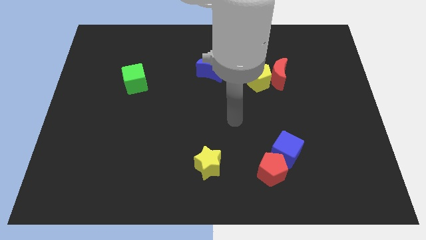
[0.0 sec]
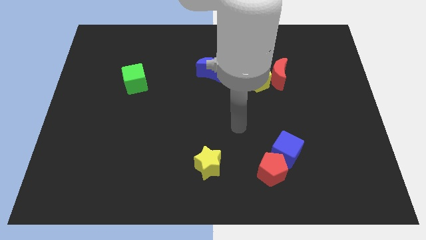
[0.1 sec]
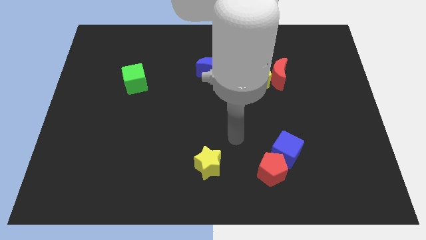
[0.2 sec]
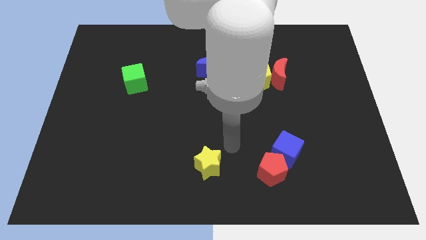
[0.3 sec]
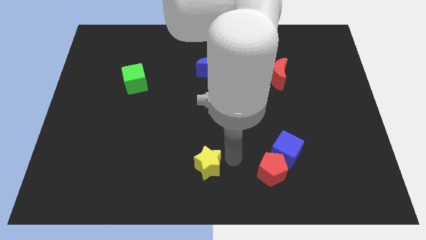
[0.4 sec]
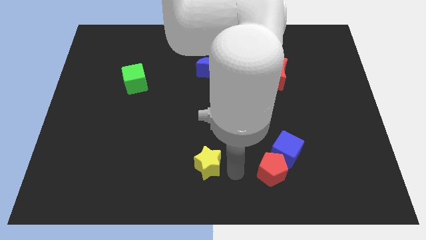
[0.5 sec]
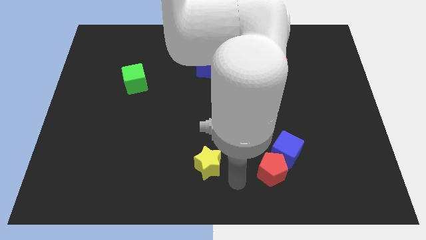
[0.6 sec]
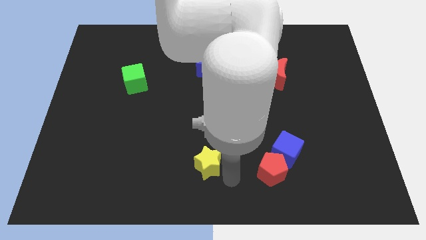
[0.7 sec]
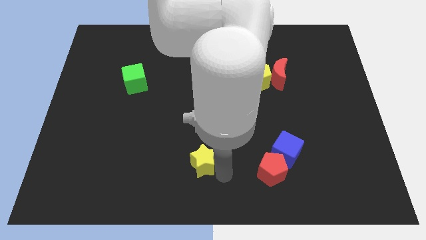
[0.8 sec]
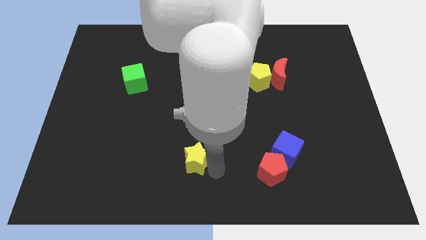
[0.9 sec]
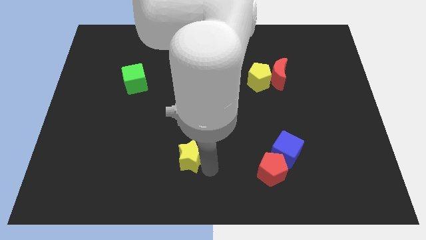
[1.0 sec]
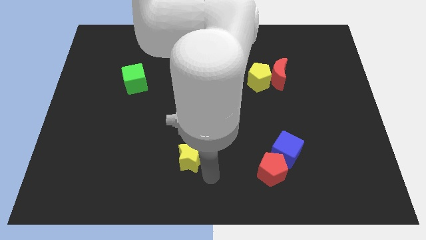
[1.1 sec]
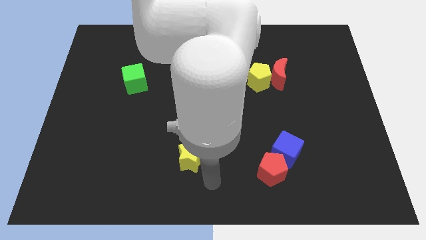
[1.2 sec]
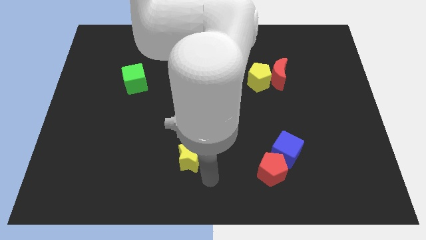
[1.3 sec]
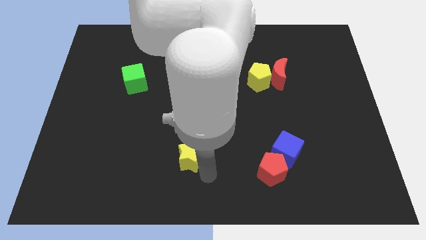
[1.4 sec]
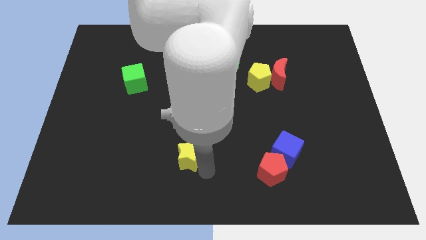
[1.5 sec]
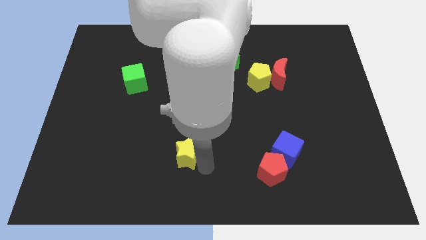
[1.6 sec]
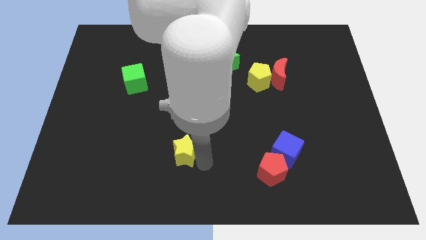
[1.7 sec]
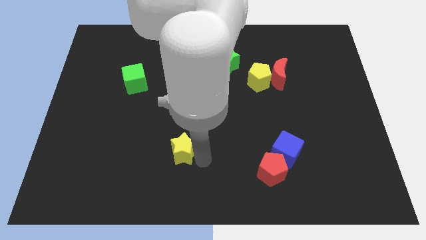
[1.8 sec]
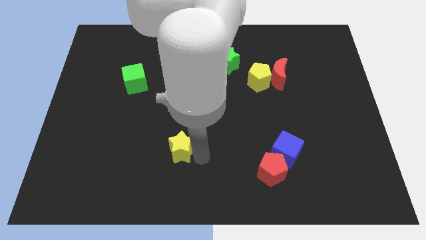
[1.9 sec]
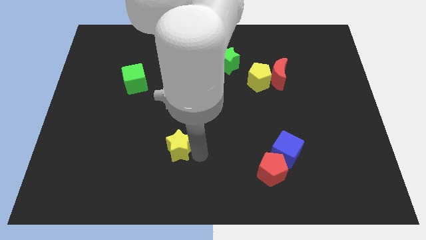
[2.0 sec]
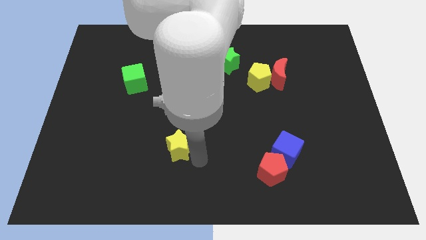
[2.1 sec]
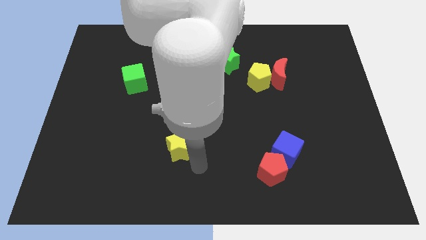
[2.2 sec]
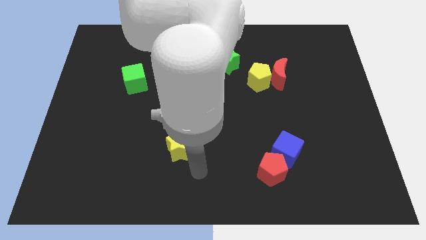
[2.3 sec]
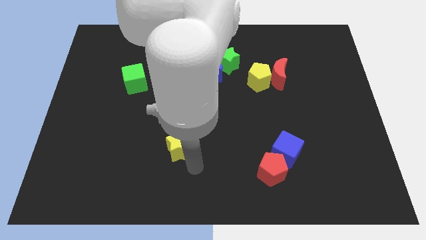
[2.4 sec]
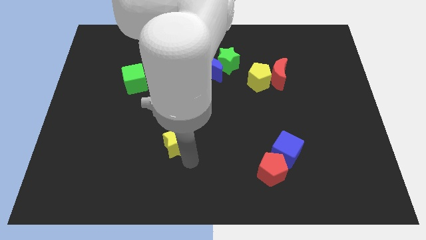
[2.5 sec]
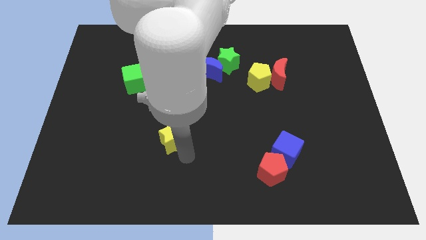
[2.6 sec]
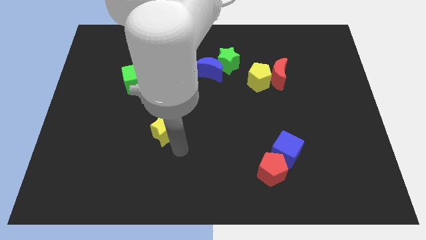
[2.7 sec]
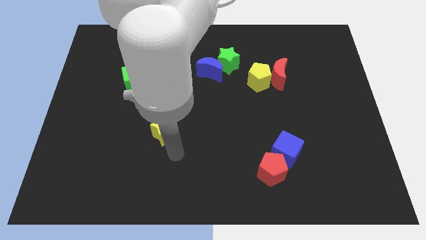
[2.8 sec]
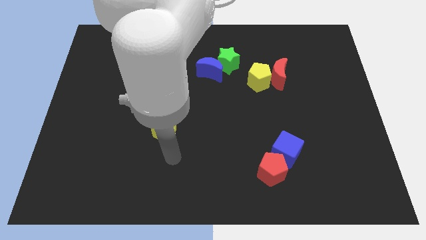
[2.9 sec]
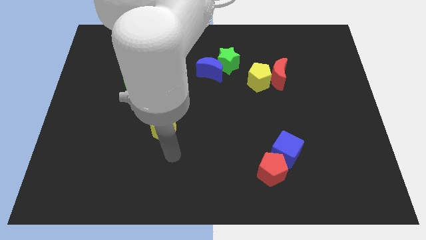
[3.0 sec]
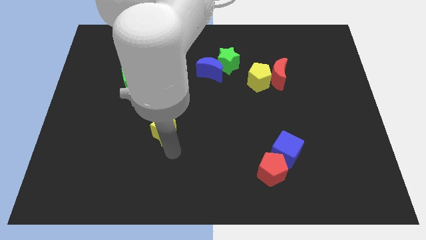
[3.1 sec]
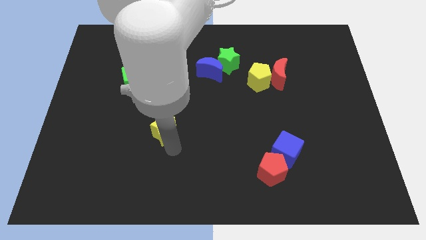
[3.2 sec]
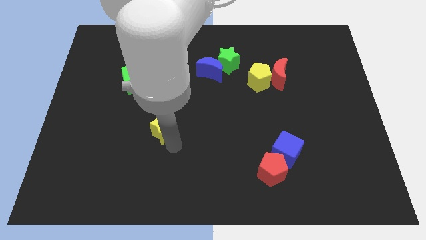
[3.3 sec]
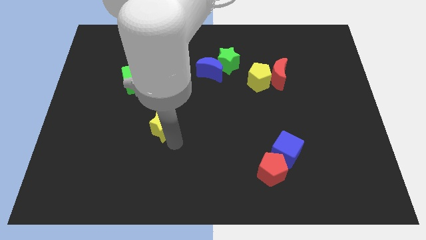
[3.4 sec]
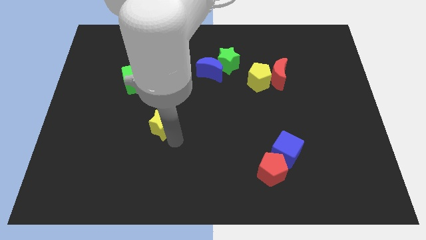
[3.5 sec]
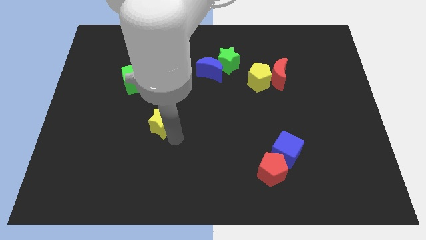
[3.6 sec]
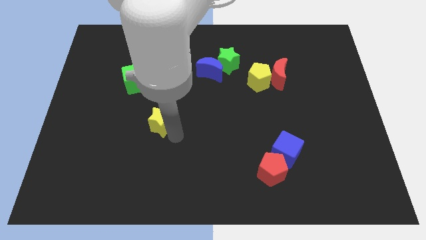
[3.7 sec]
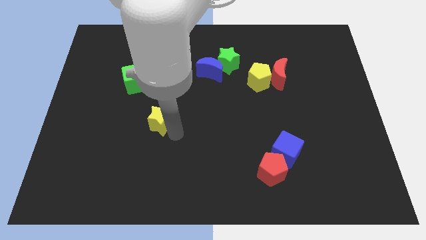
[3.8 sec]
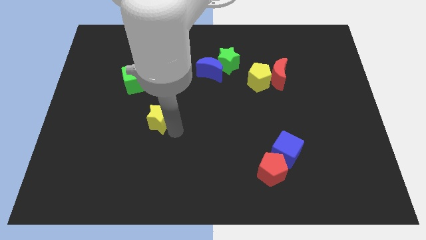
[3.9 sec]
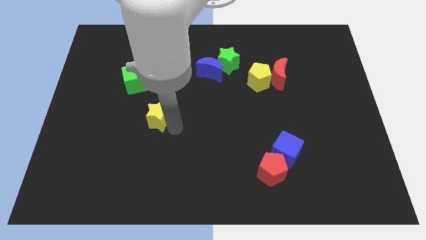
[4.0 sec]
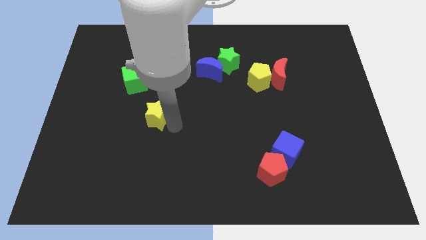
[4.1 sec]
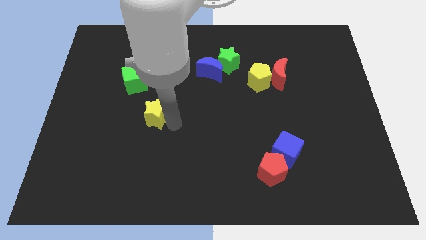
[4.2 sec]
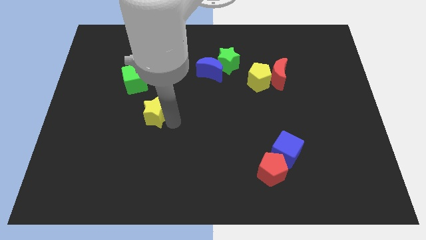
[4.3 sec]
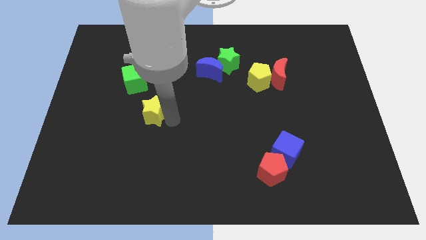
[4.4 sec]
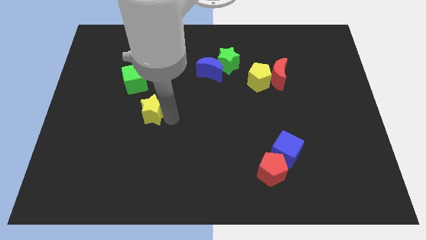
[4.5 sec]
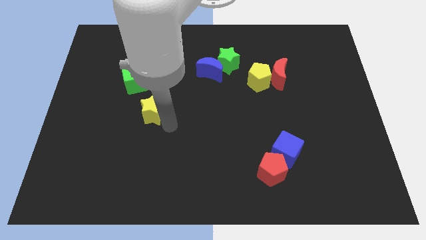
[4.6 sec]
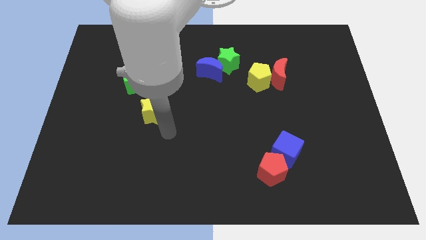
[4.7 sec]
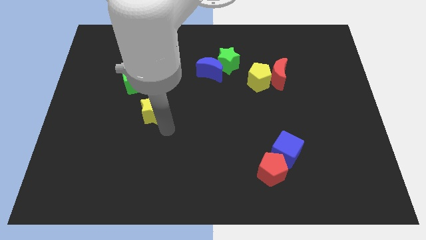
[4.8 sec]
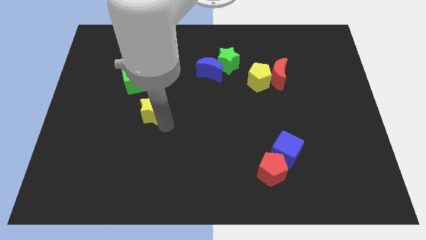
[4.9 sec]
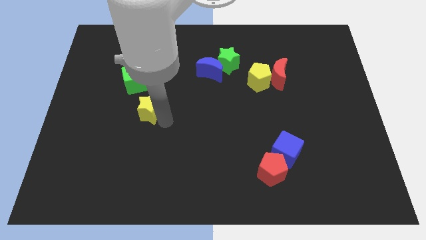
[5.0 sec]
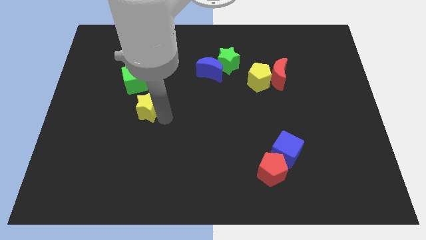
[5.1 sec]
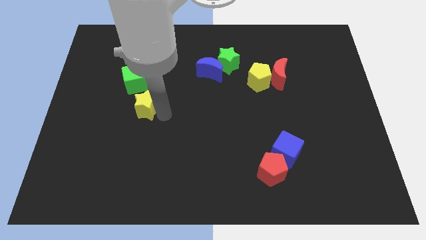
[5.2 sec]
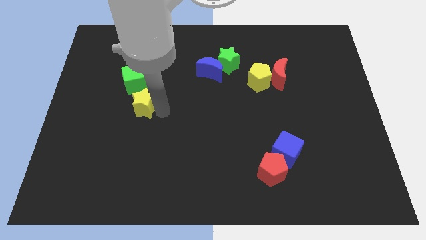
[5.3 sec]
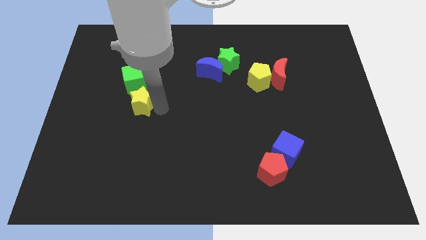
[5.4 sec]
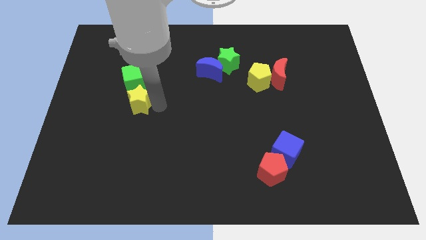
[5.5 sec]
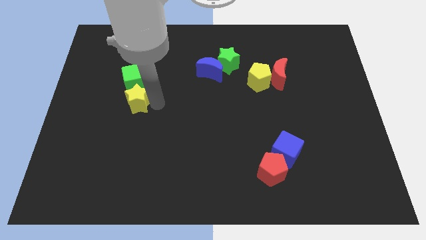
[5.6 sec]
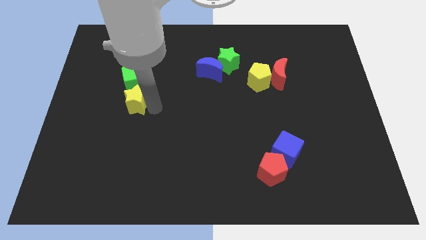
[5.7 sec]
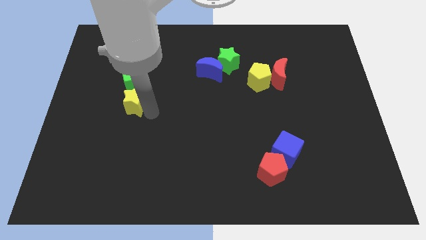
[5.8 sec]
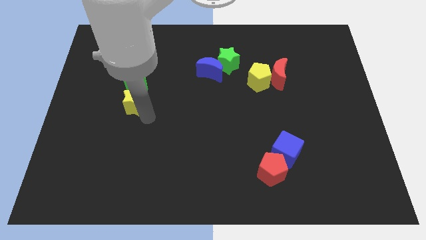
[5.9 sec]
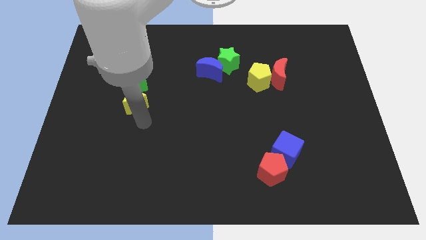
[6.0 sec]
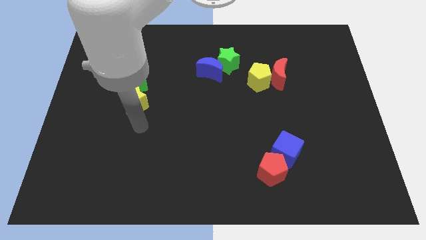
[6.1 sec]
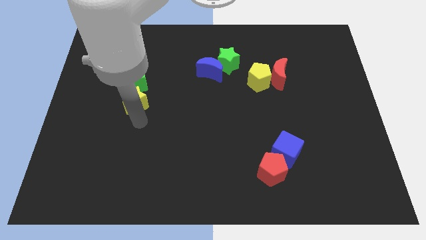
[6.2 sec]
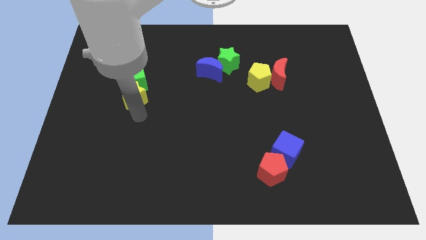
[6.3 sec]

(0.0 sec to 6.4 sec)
move the yellow star close to the green cube

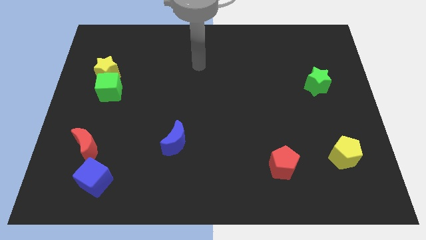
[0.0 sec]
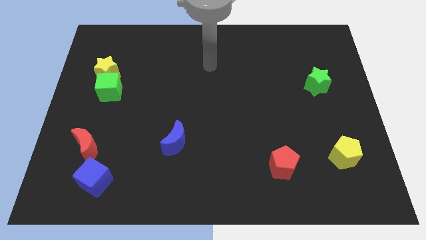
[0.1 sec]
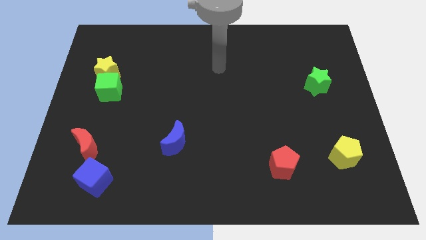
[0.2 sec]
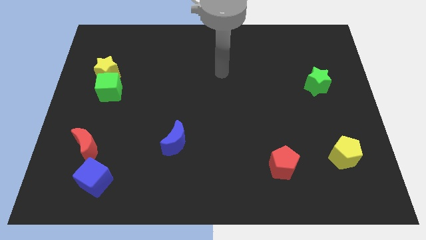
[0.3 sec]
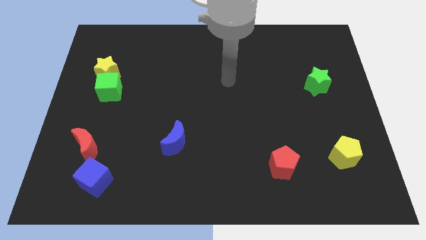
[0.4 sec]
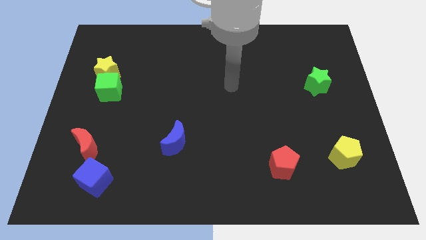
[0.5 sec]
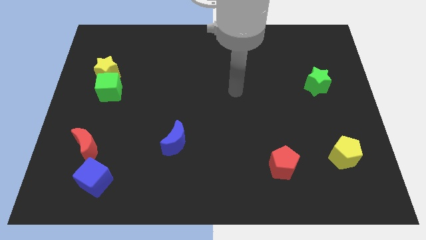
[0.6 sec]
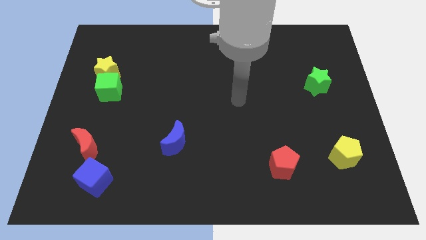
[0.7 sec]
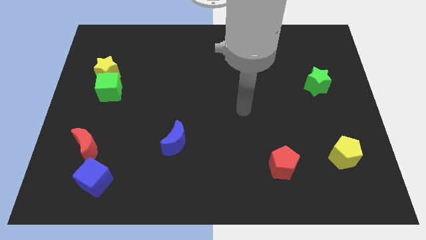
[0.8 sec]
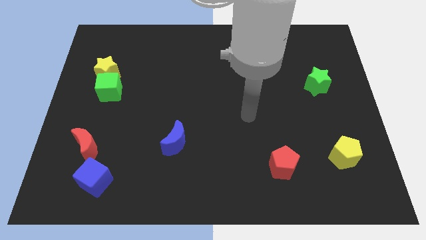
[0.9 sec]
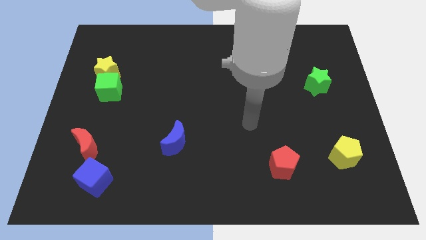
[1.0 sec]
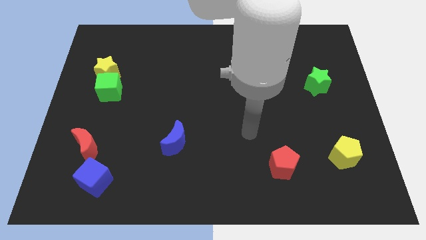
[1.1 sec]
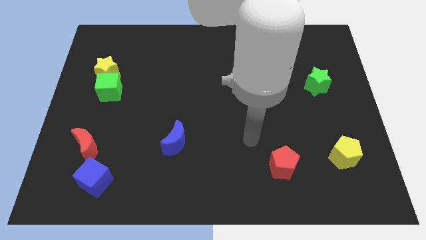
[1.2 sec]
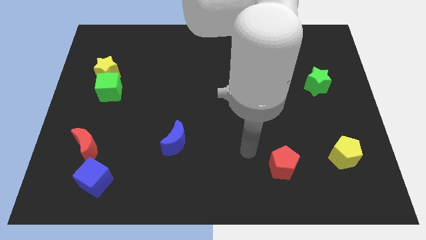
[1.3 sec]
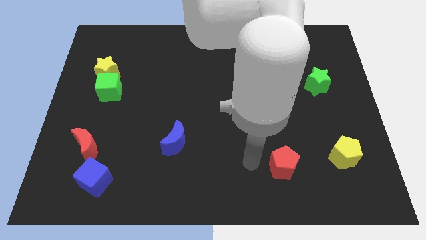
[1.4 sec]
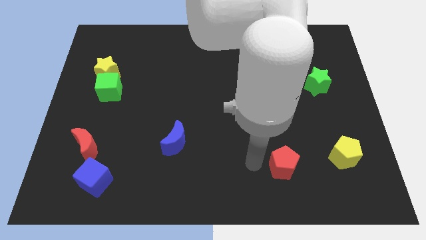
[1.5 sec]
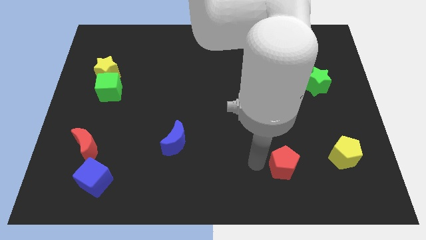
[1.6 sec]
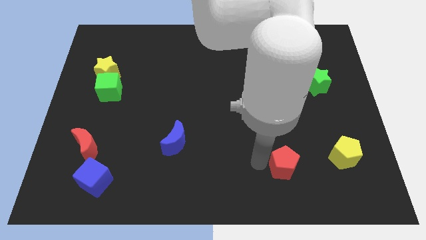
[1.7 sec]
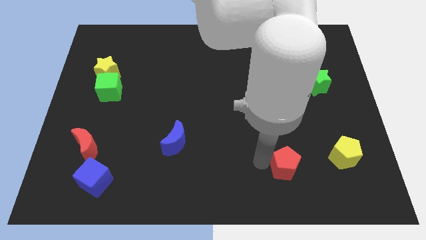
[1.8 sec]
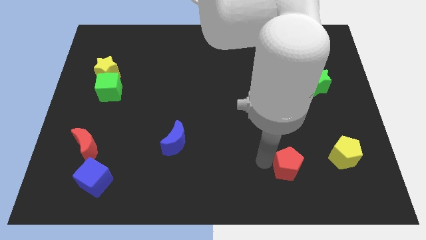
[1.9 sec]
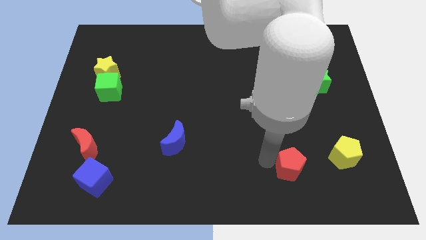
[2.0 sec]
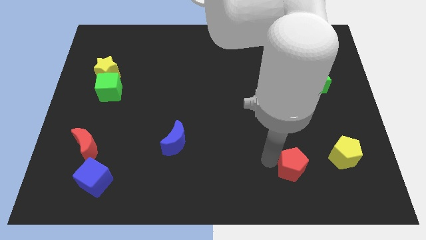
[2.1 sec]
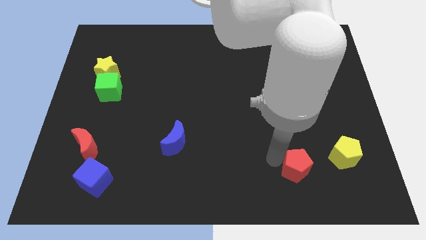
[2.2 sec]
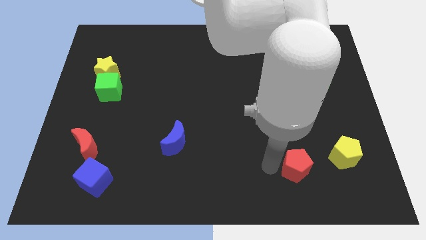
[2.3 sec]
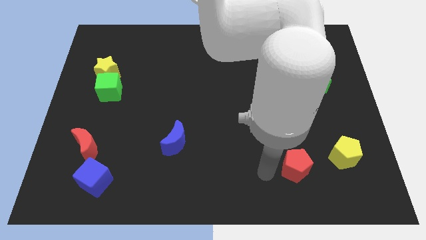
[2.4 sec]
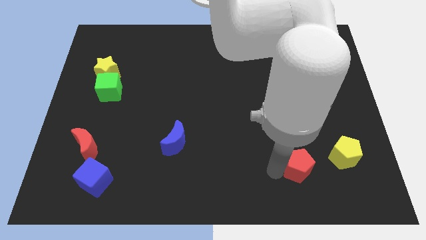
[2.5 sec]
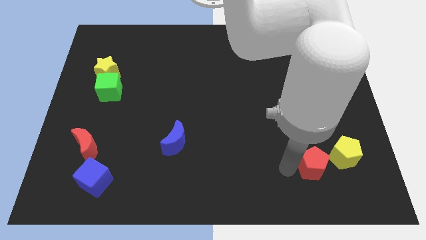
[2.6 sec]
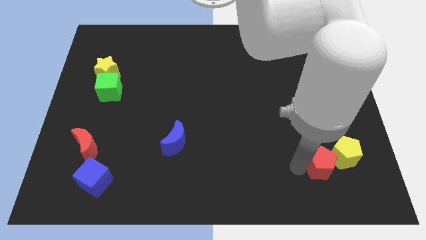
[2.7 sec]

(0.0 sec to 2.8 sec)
slide the red pentagon next to the yellow pentagon
